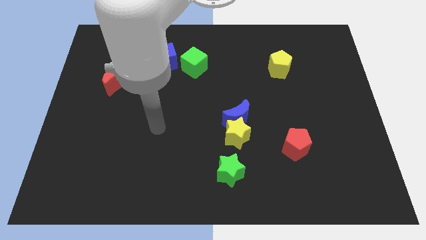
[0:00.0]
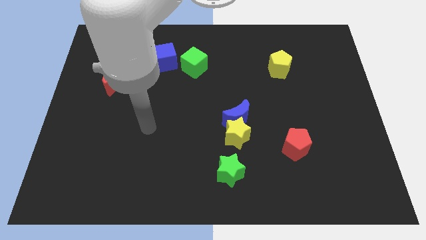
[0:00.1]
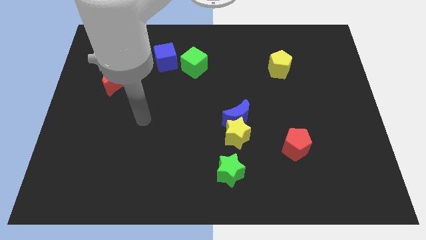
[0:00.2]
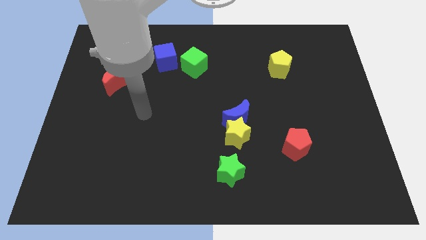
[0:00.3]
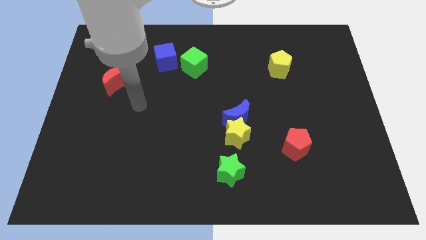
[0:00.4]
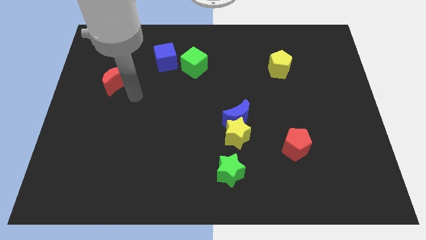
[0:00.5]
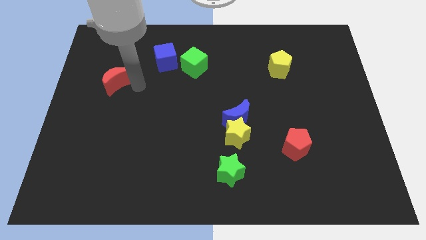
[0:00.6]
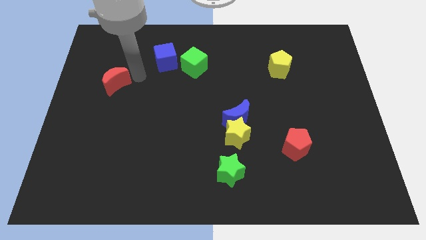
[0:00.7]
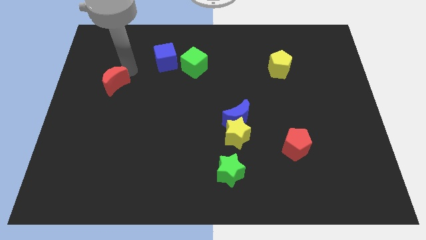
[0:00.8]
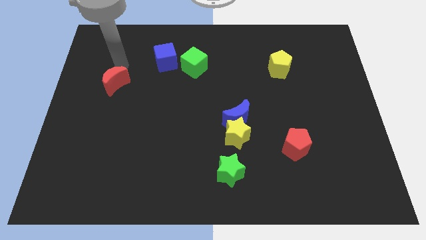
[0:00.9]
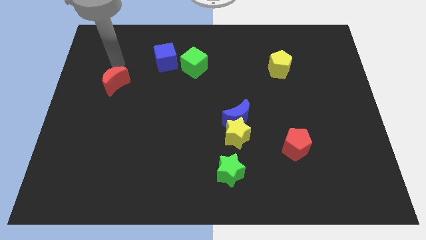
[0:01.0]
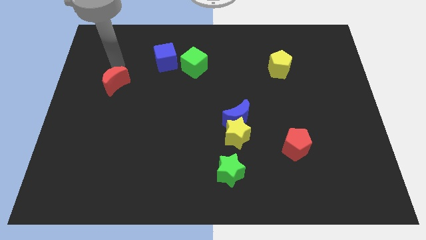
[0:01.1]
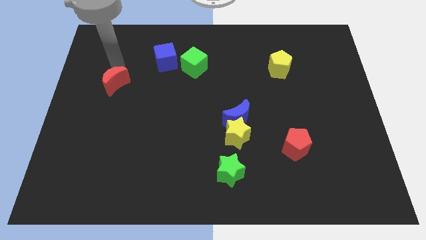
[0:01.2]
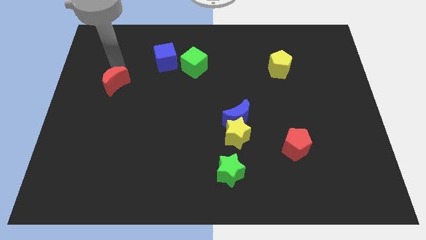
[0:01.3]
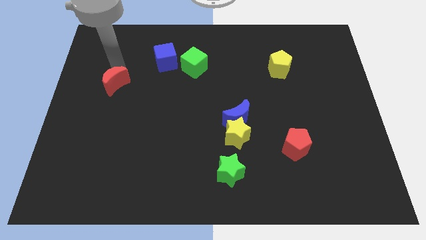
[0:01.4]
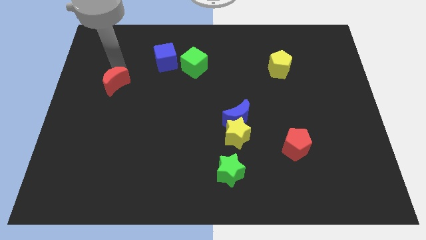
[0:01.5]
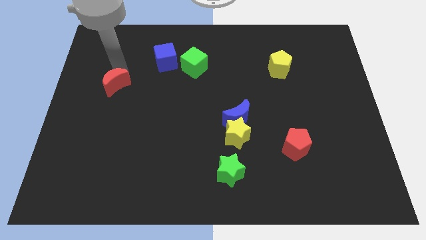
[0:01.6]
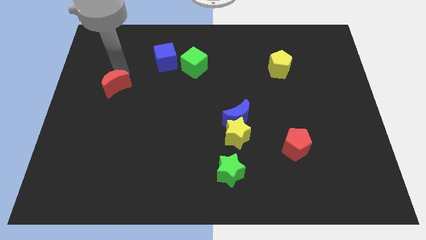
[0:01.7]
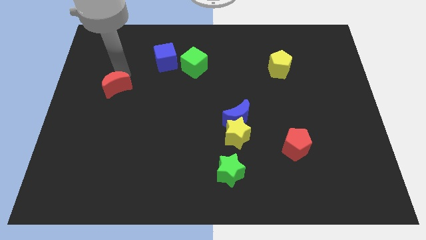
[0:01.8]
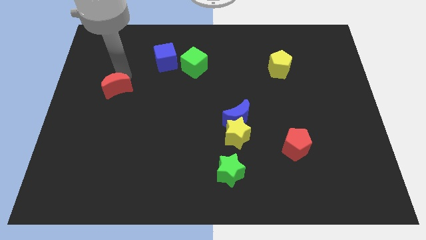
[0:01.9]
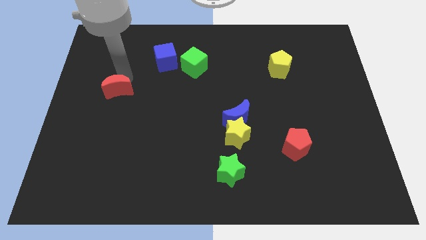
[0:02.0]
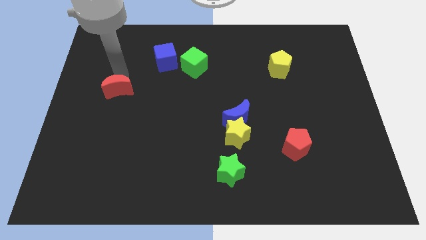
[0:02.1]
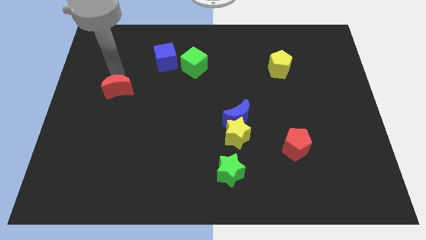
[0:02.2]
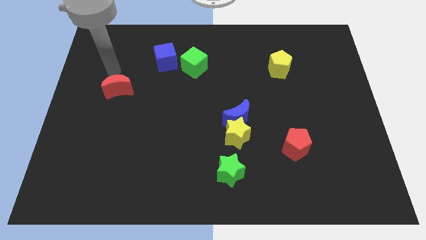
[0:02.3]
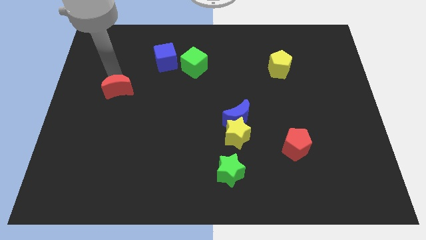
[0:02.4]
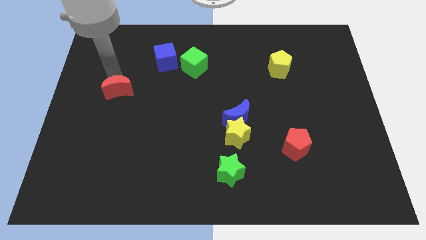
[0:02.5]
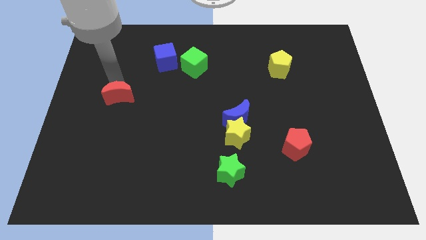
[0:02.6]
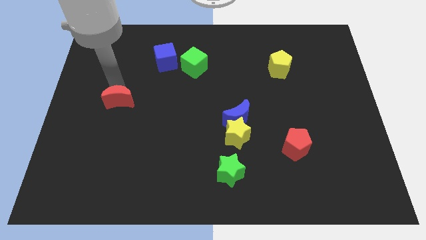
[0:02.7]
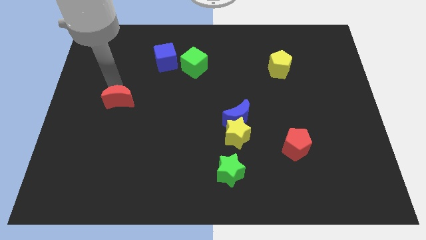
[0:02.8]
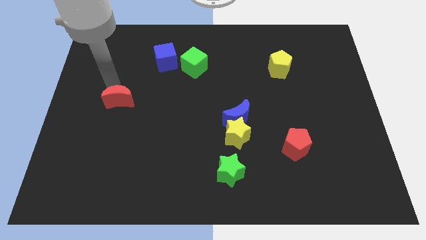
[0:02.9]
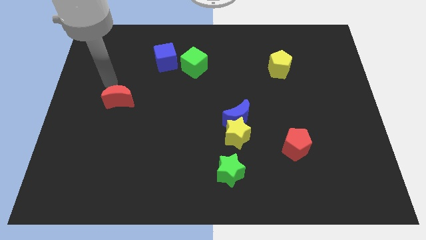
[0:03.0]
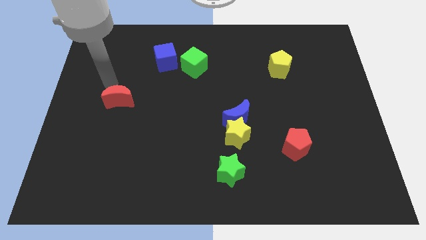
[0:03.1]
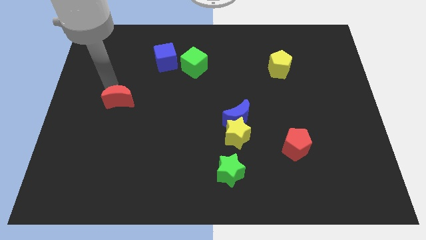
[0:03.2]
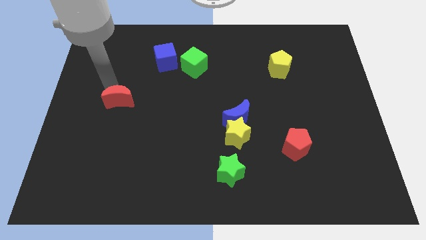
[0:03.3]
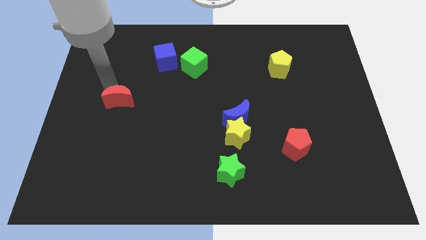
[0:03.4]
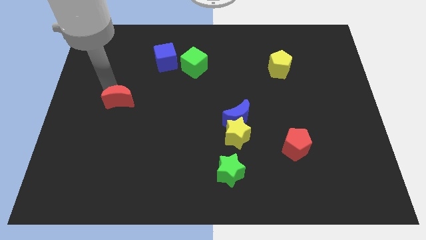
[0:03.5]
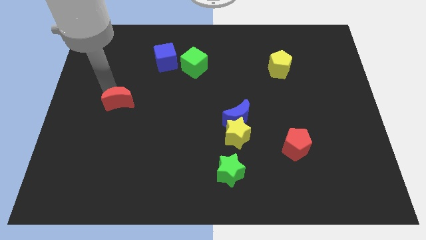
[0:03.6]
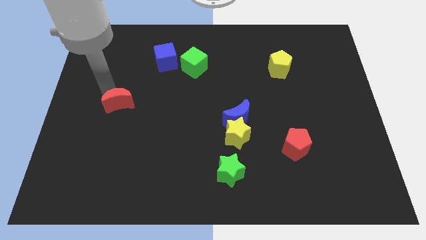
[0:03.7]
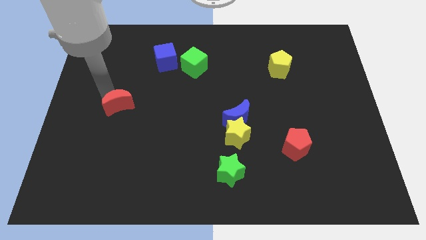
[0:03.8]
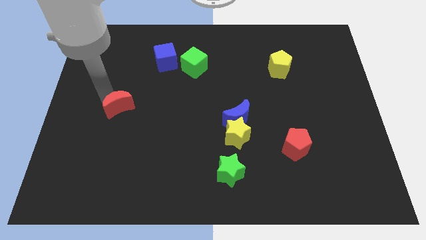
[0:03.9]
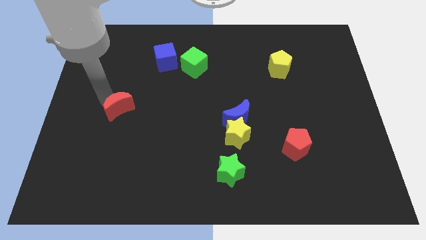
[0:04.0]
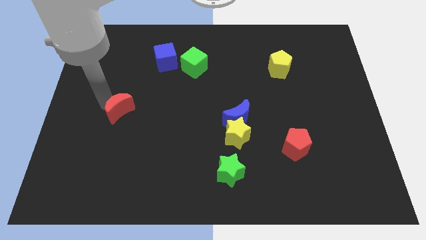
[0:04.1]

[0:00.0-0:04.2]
slightly slide the red moon diagonally down and to the right

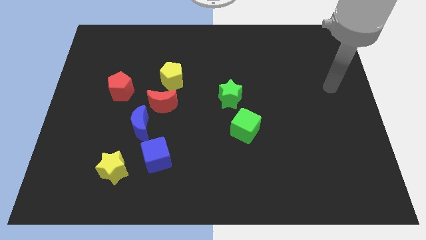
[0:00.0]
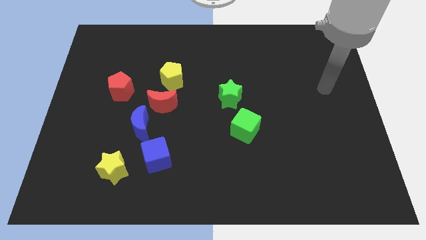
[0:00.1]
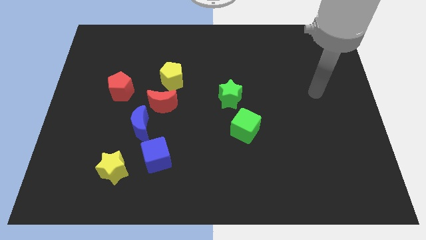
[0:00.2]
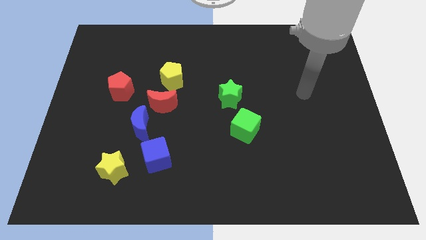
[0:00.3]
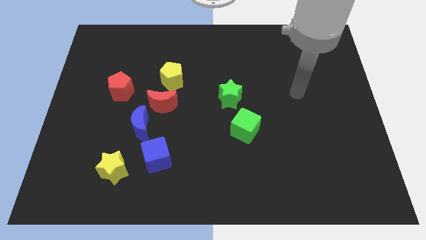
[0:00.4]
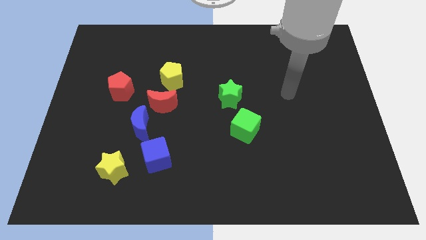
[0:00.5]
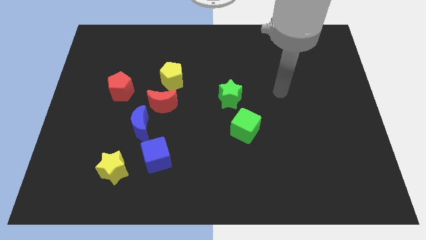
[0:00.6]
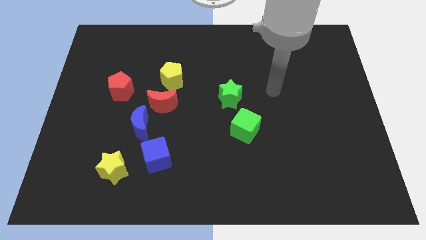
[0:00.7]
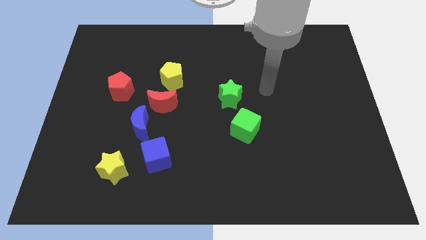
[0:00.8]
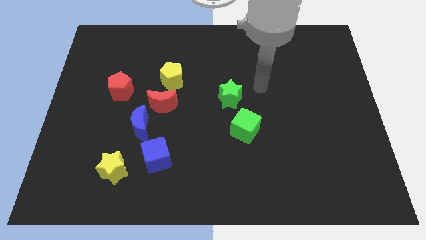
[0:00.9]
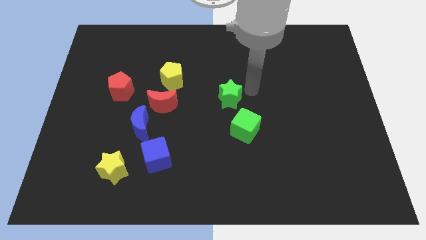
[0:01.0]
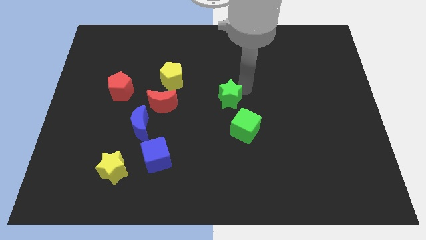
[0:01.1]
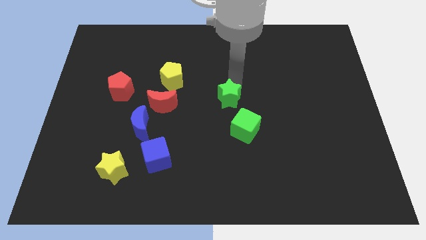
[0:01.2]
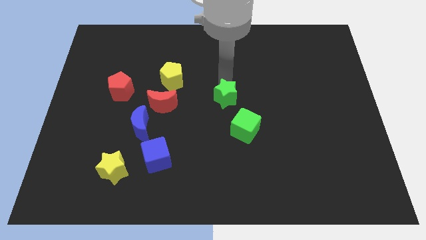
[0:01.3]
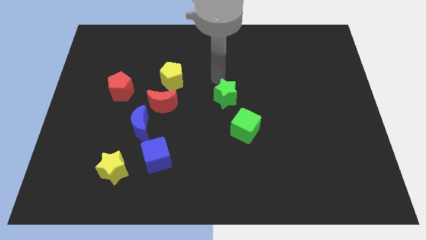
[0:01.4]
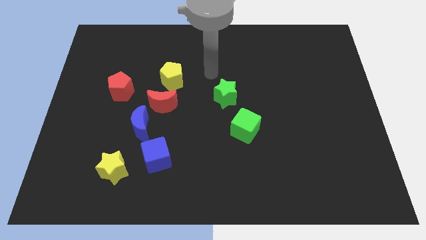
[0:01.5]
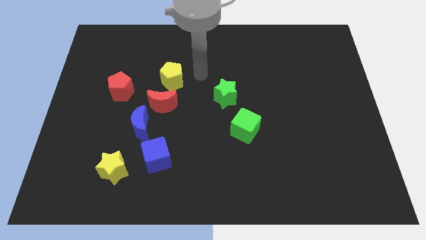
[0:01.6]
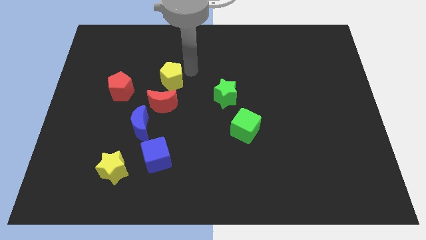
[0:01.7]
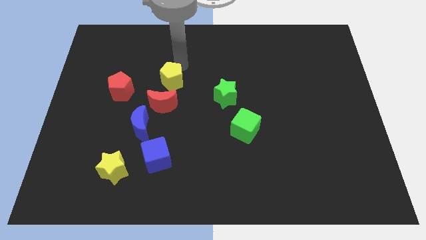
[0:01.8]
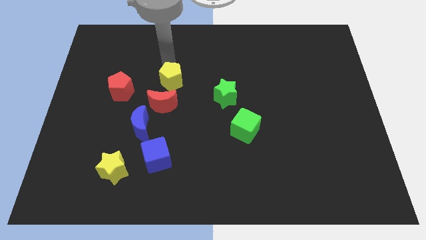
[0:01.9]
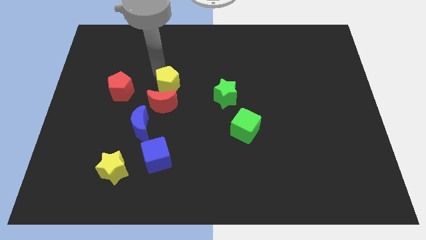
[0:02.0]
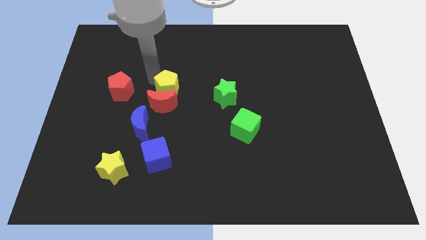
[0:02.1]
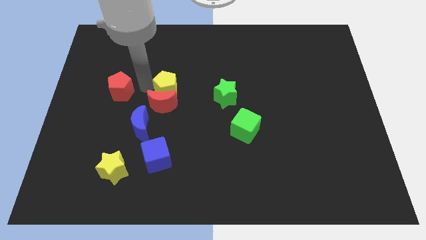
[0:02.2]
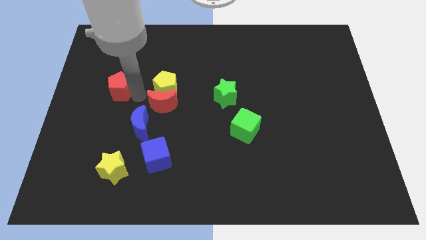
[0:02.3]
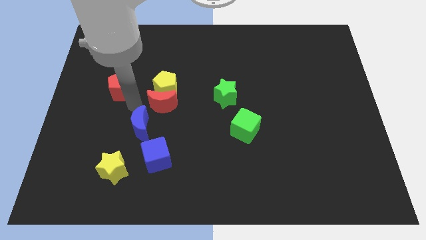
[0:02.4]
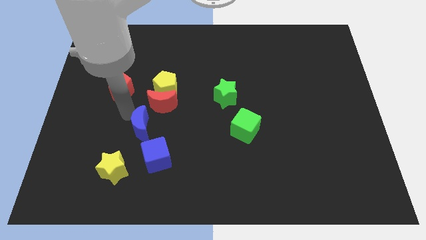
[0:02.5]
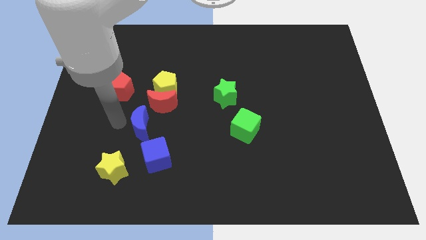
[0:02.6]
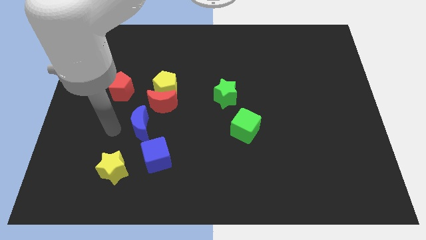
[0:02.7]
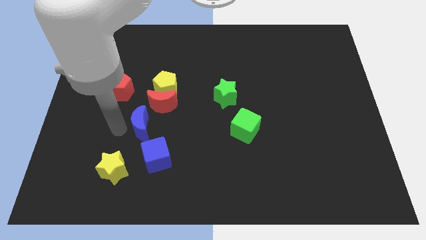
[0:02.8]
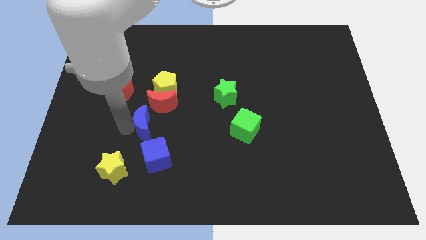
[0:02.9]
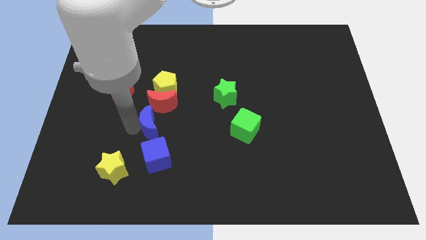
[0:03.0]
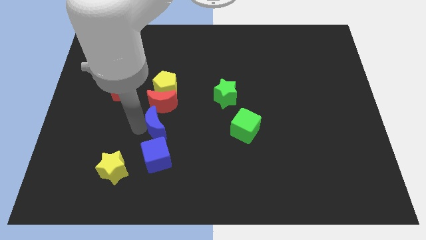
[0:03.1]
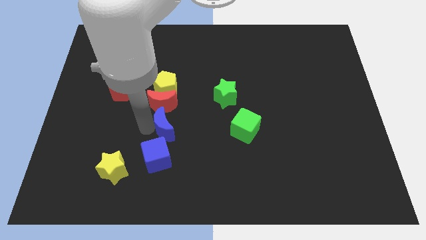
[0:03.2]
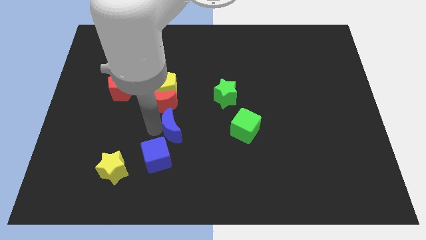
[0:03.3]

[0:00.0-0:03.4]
slide the blue moon to the right slightly

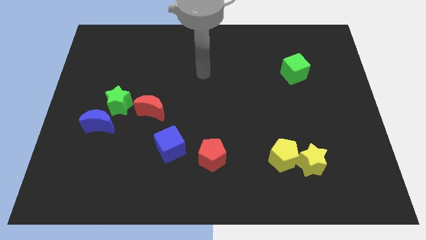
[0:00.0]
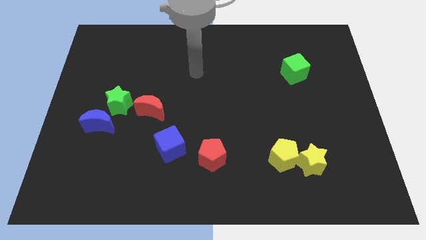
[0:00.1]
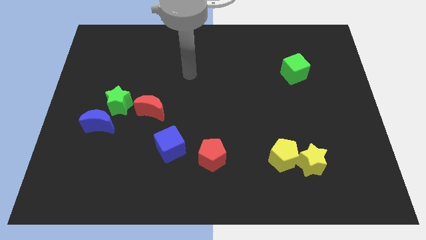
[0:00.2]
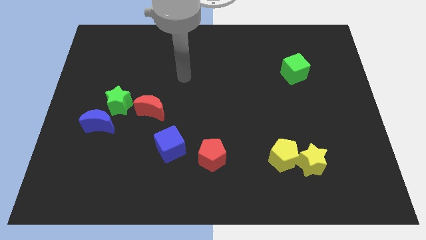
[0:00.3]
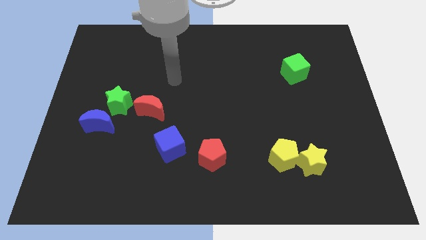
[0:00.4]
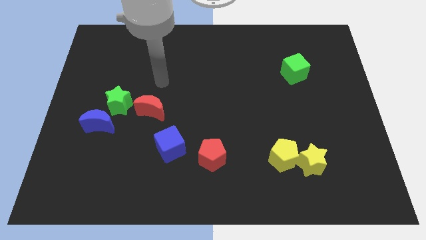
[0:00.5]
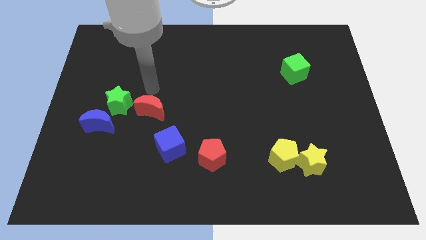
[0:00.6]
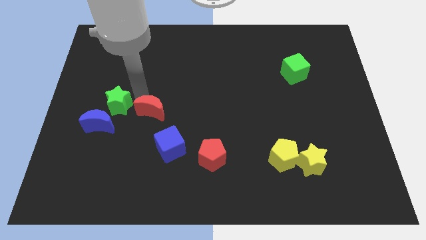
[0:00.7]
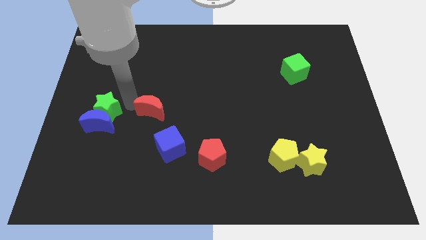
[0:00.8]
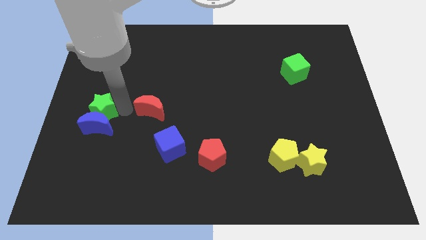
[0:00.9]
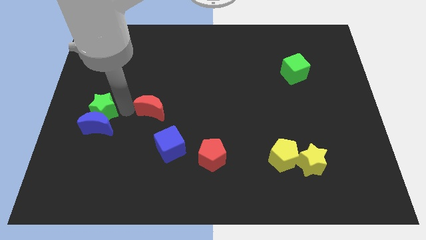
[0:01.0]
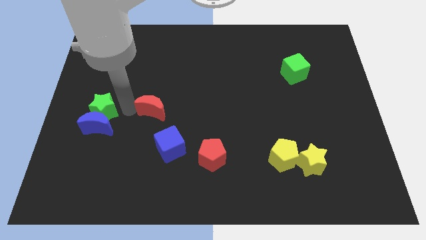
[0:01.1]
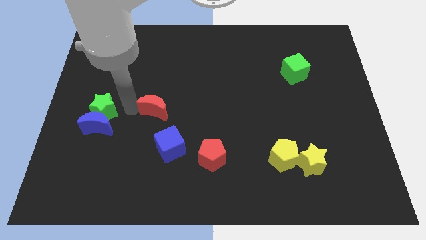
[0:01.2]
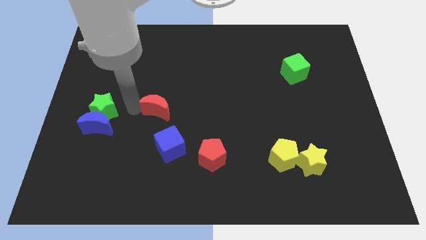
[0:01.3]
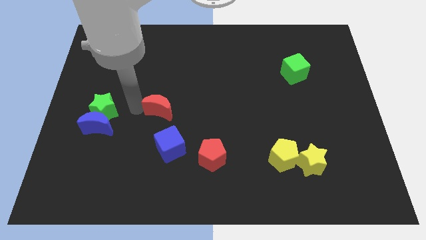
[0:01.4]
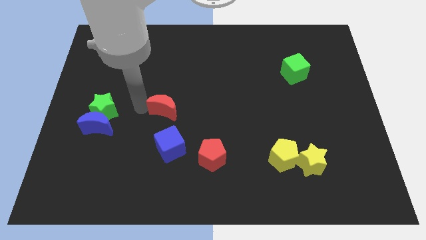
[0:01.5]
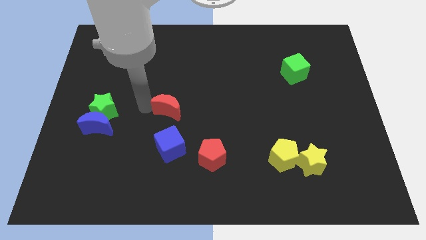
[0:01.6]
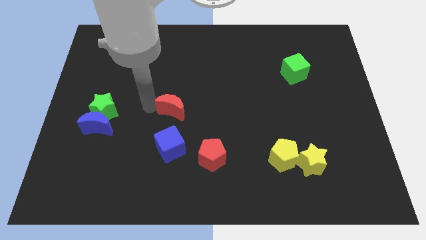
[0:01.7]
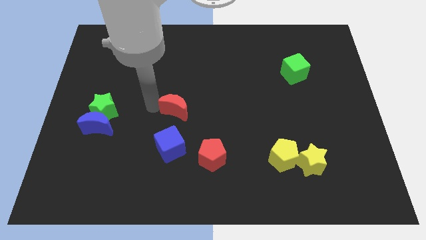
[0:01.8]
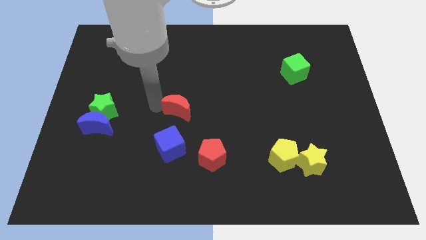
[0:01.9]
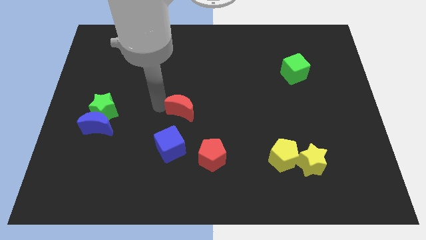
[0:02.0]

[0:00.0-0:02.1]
push the red moon right somewhat
